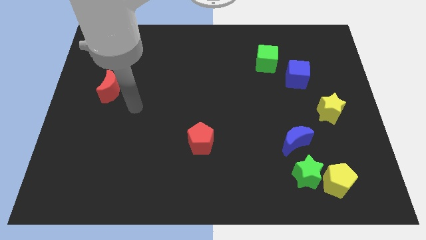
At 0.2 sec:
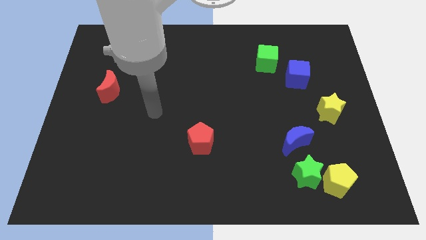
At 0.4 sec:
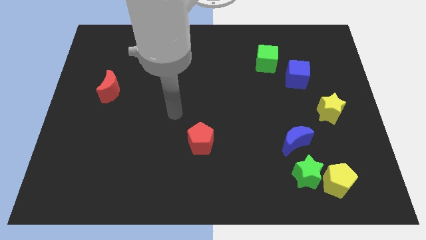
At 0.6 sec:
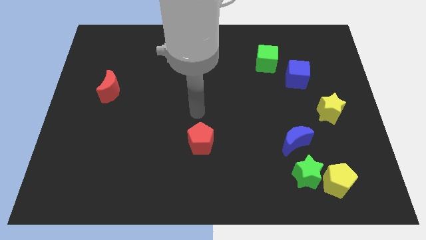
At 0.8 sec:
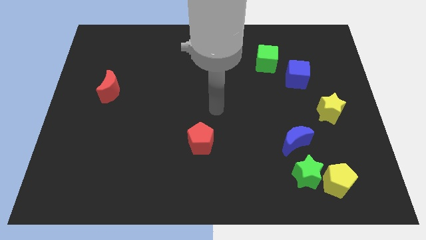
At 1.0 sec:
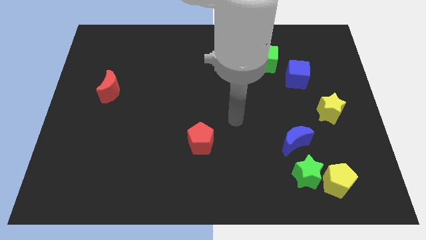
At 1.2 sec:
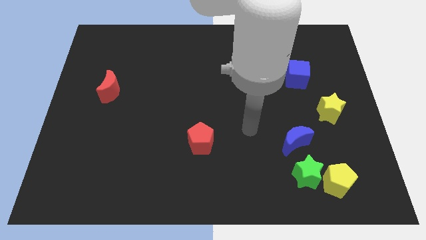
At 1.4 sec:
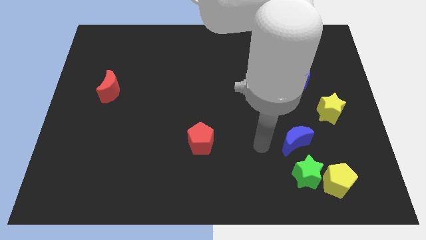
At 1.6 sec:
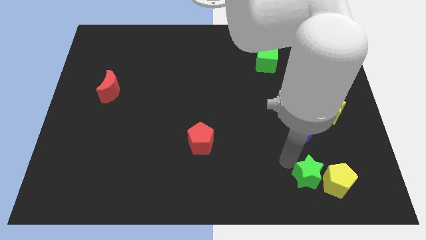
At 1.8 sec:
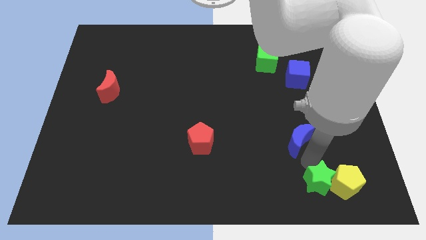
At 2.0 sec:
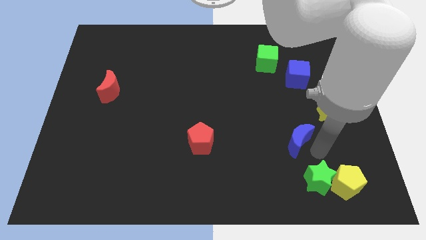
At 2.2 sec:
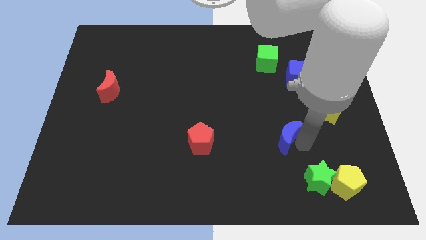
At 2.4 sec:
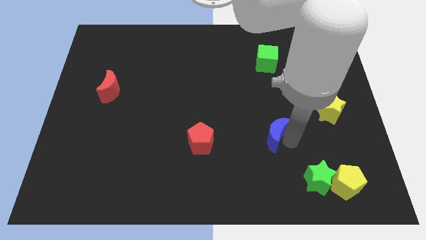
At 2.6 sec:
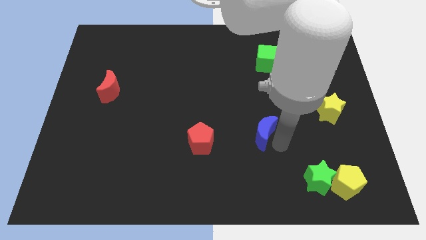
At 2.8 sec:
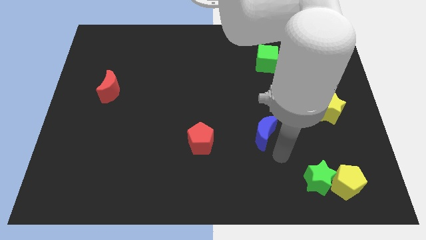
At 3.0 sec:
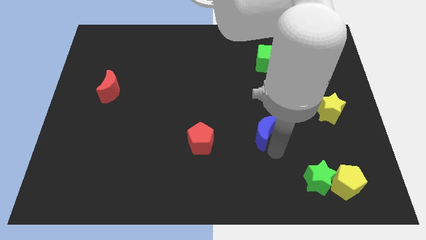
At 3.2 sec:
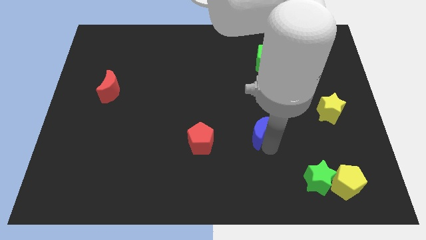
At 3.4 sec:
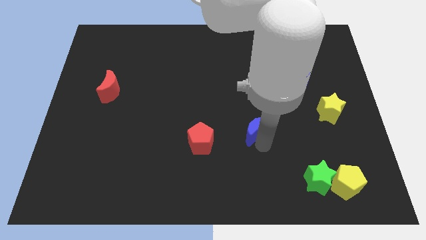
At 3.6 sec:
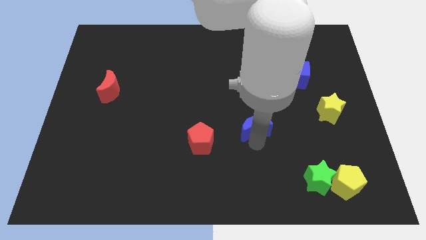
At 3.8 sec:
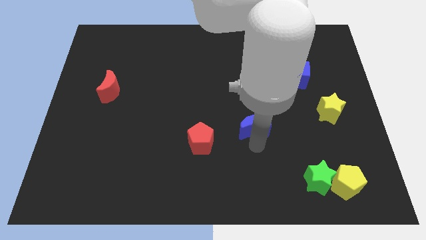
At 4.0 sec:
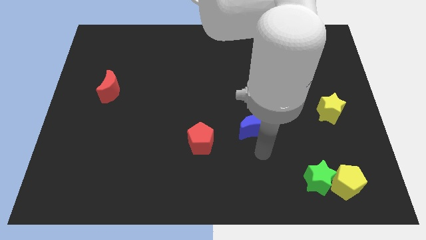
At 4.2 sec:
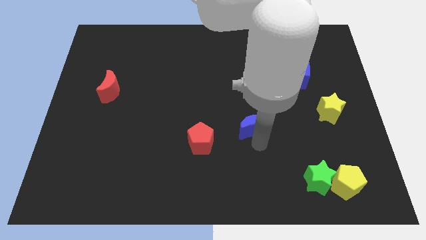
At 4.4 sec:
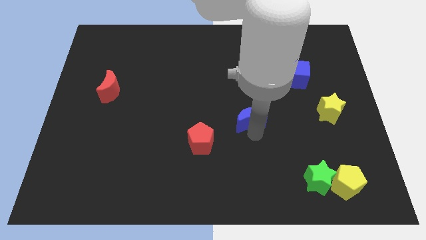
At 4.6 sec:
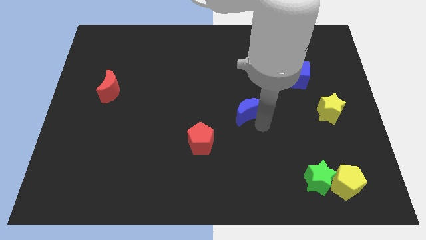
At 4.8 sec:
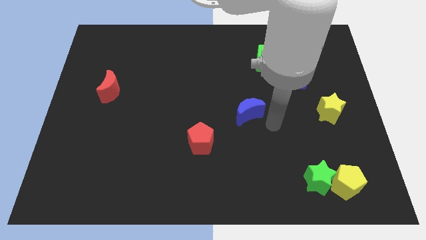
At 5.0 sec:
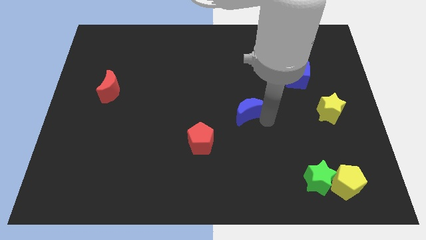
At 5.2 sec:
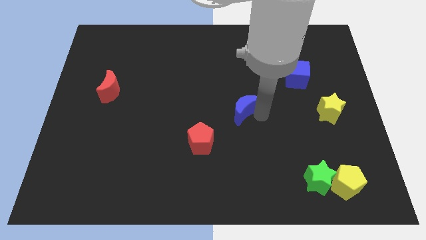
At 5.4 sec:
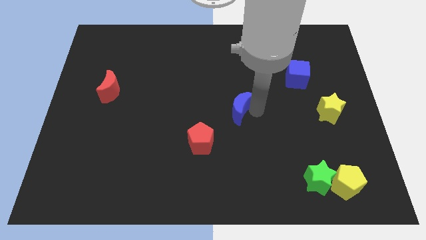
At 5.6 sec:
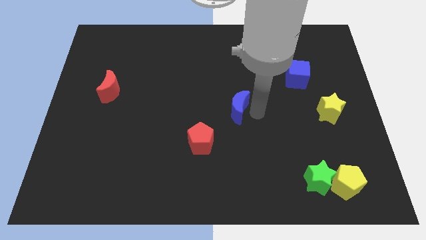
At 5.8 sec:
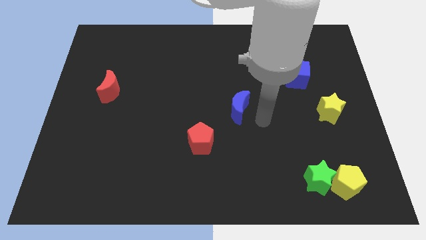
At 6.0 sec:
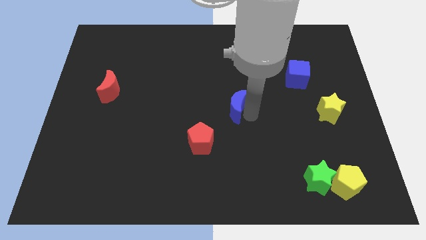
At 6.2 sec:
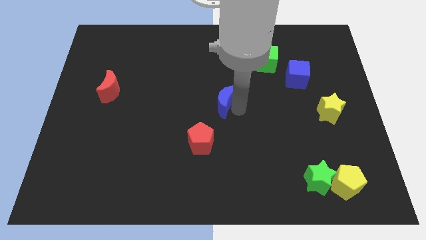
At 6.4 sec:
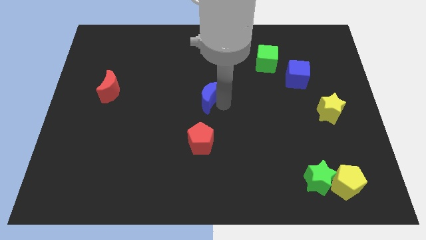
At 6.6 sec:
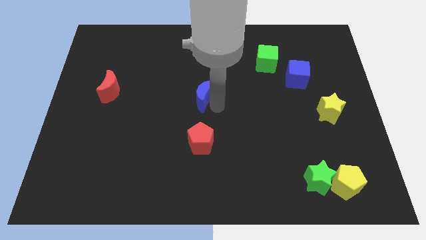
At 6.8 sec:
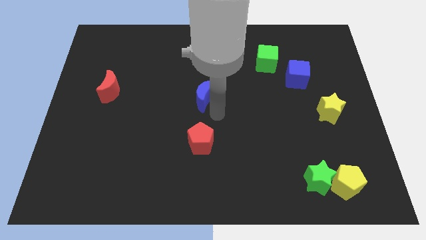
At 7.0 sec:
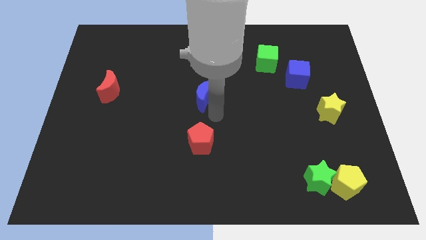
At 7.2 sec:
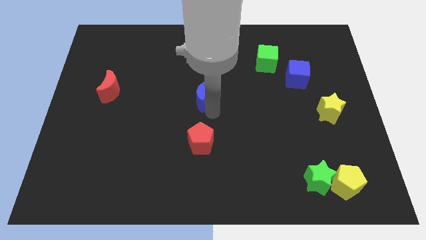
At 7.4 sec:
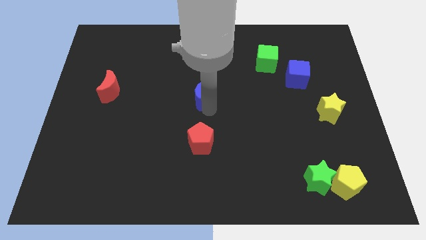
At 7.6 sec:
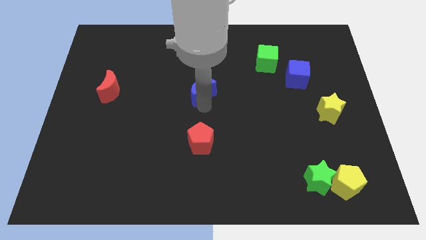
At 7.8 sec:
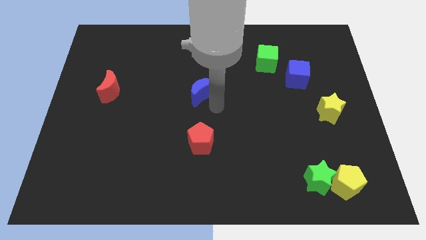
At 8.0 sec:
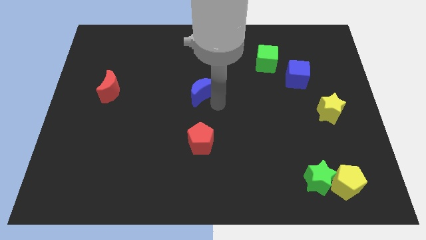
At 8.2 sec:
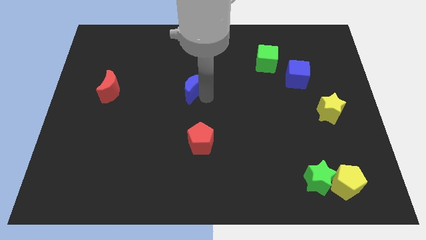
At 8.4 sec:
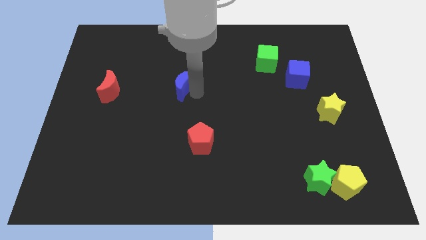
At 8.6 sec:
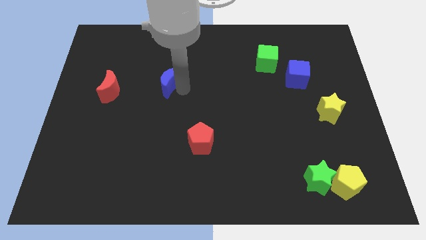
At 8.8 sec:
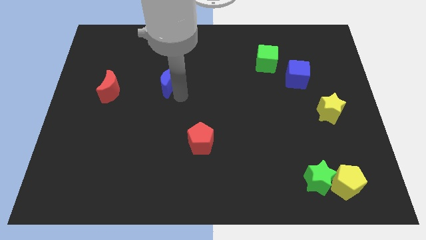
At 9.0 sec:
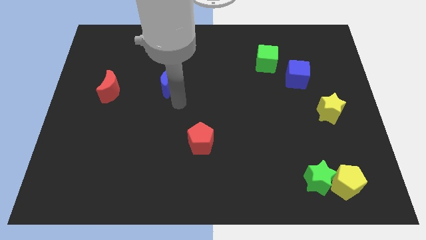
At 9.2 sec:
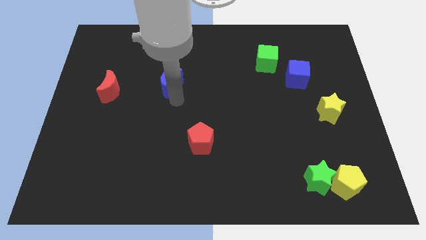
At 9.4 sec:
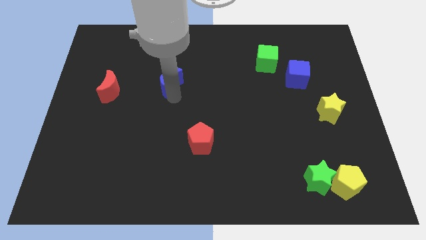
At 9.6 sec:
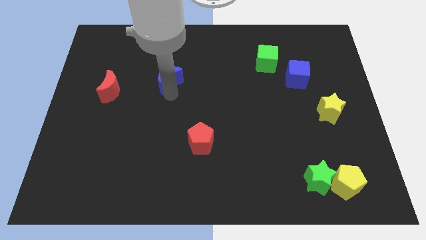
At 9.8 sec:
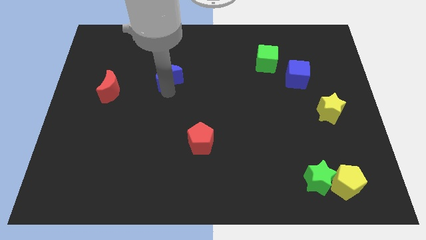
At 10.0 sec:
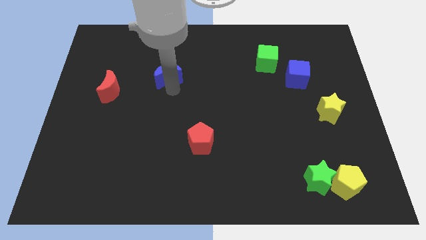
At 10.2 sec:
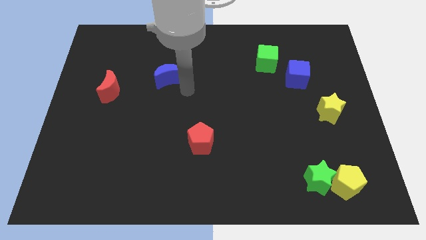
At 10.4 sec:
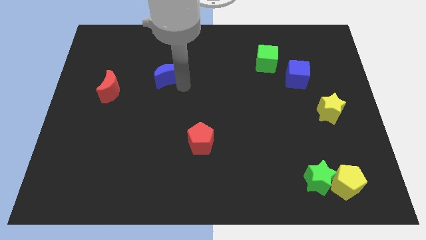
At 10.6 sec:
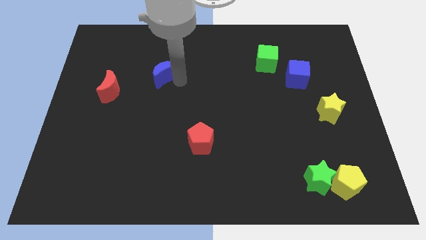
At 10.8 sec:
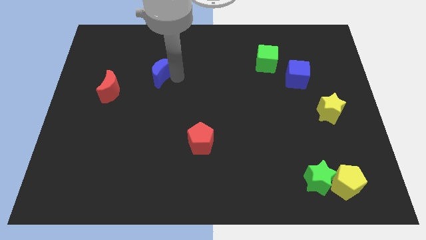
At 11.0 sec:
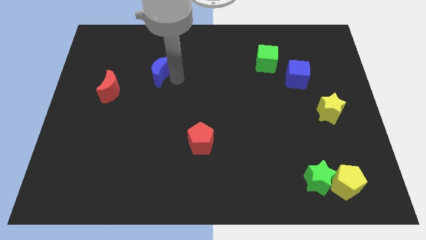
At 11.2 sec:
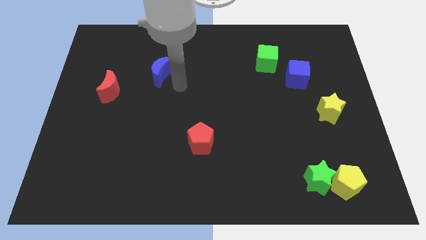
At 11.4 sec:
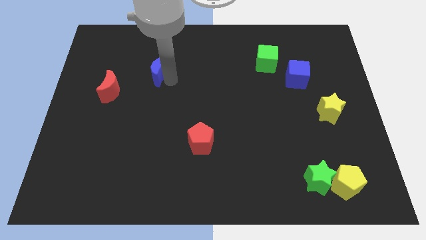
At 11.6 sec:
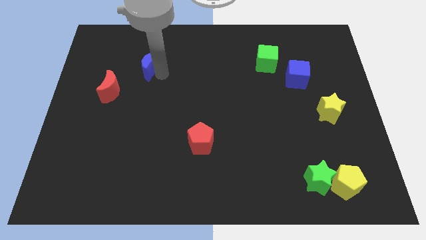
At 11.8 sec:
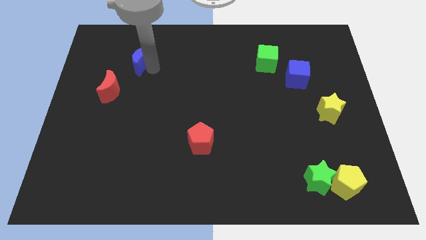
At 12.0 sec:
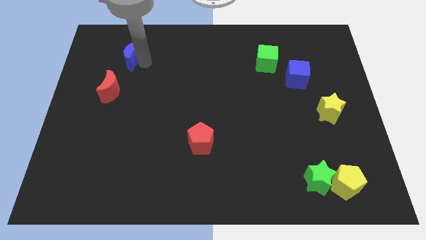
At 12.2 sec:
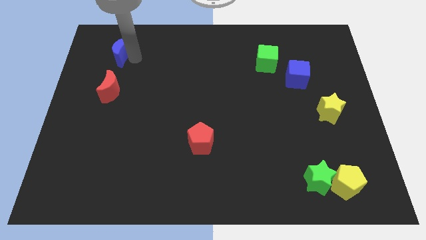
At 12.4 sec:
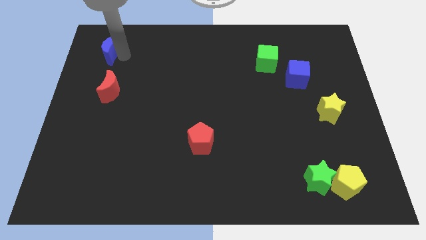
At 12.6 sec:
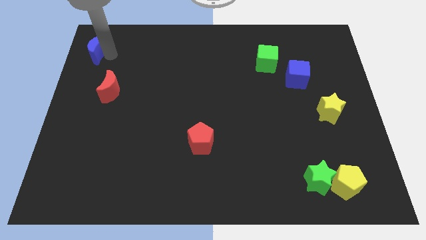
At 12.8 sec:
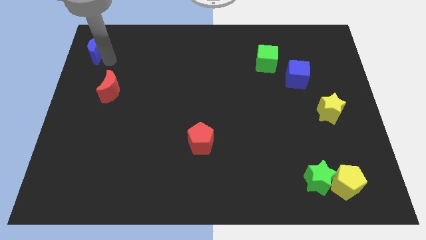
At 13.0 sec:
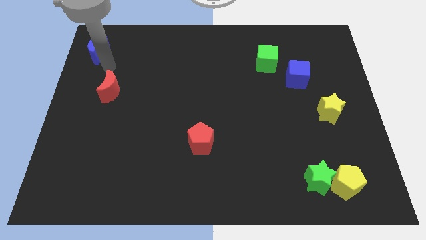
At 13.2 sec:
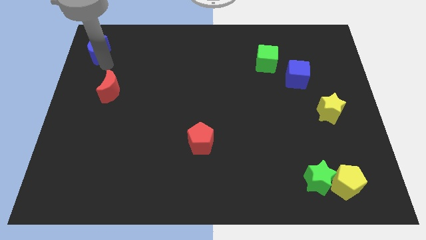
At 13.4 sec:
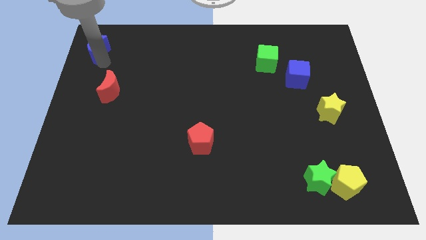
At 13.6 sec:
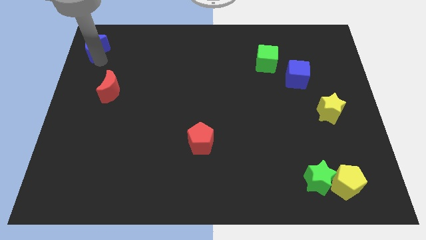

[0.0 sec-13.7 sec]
put the blue moon to the top left

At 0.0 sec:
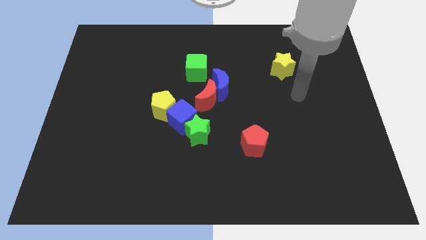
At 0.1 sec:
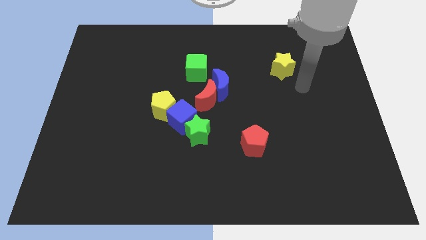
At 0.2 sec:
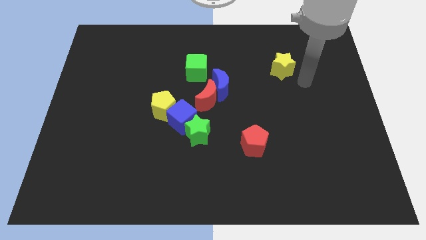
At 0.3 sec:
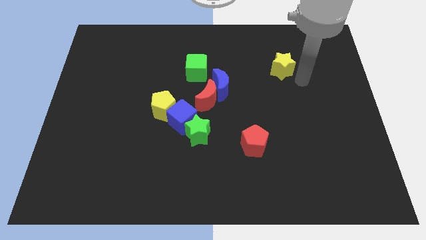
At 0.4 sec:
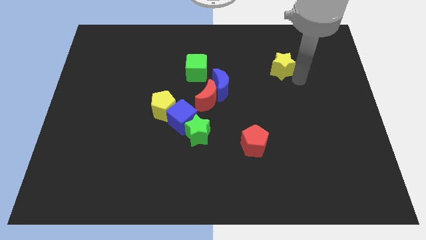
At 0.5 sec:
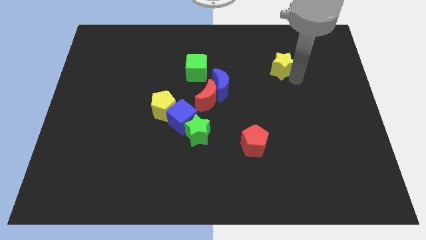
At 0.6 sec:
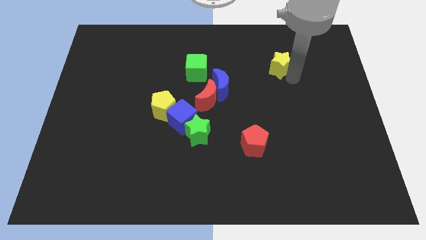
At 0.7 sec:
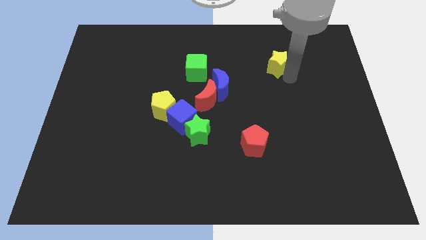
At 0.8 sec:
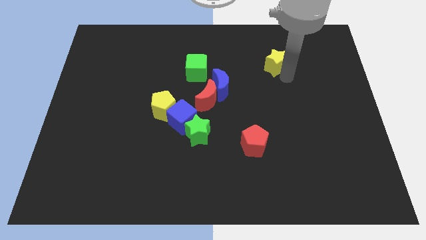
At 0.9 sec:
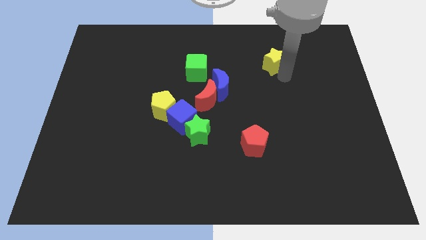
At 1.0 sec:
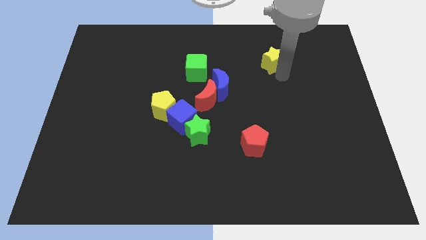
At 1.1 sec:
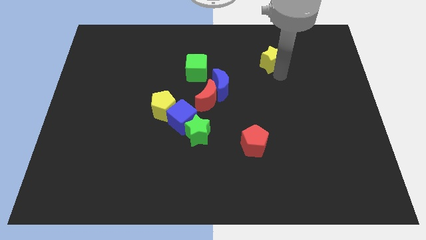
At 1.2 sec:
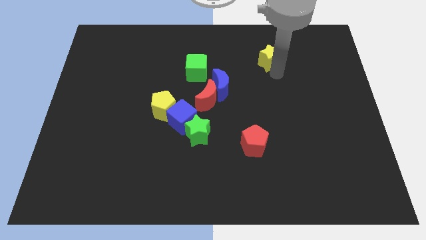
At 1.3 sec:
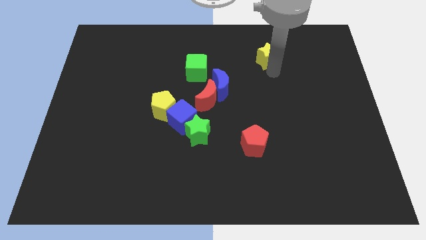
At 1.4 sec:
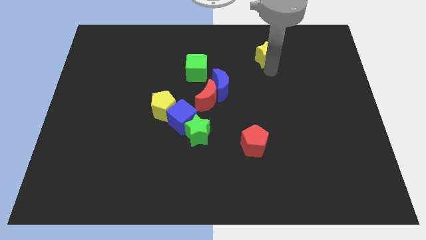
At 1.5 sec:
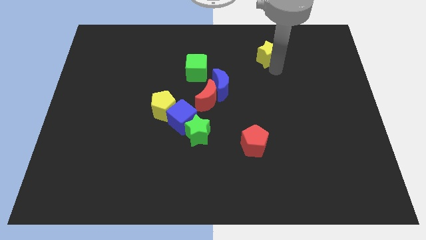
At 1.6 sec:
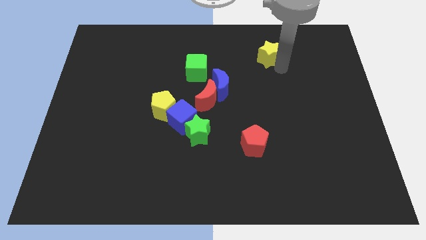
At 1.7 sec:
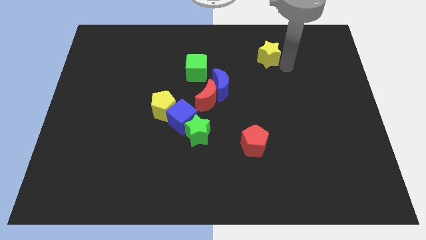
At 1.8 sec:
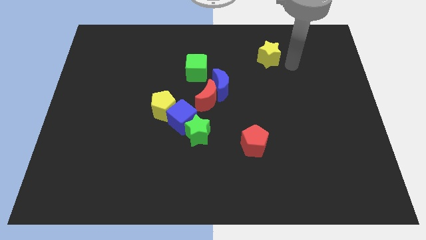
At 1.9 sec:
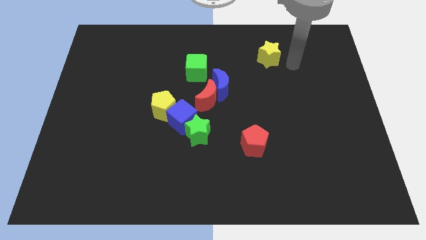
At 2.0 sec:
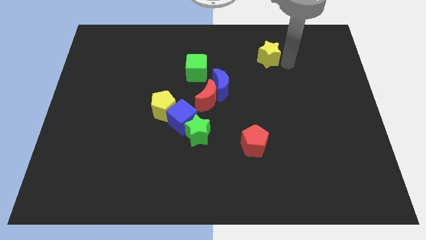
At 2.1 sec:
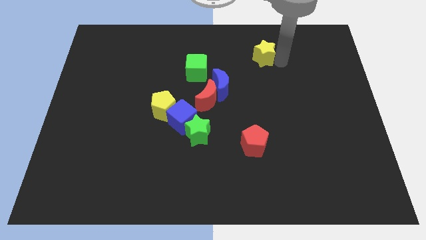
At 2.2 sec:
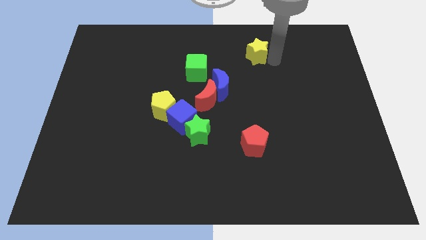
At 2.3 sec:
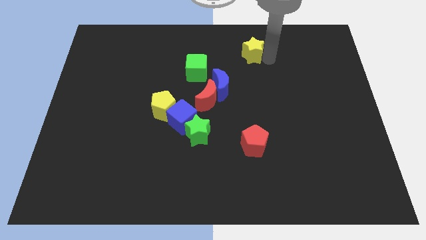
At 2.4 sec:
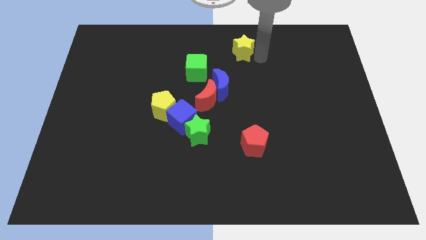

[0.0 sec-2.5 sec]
push the yellow star to the top side
